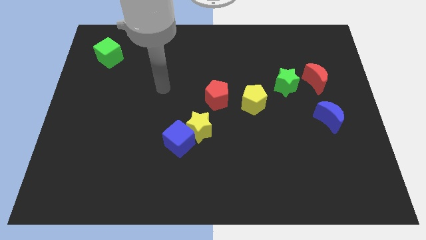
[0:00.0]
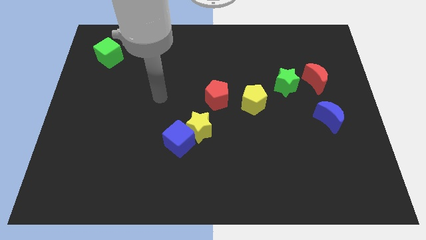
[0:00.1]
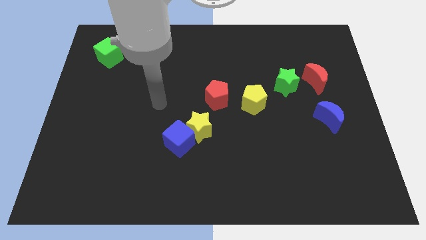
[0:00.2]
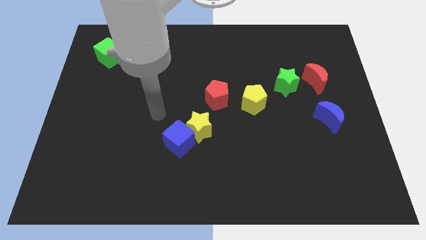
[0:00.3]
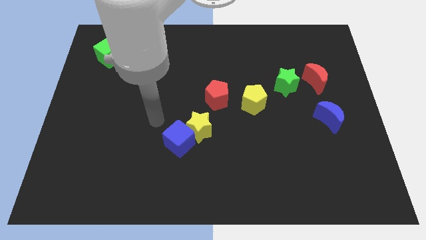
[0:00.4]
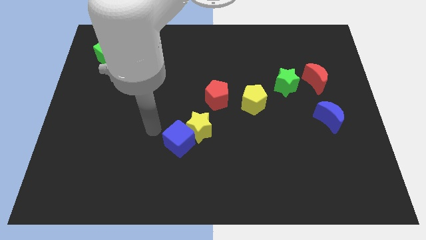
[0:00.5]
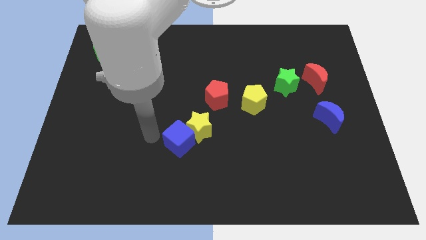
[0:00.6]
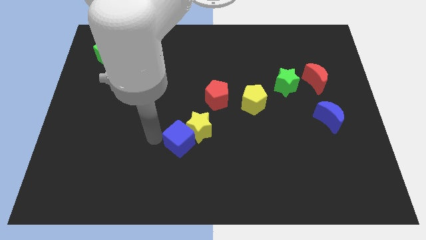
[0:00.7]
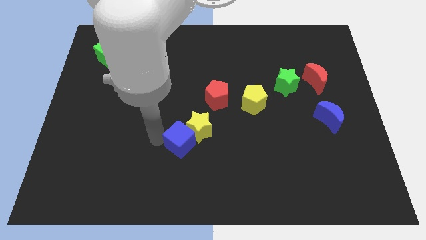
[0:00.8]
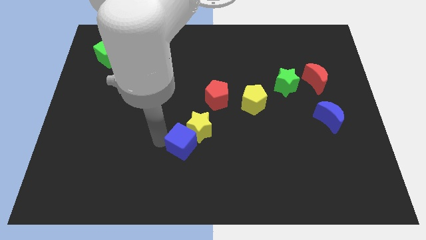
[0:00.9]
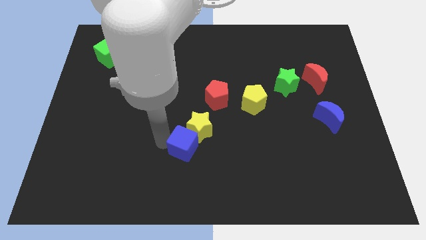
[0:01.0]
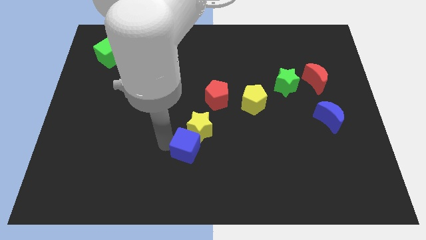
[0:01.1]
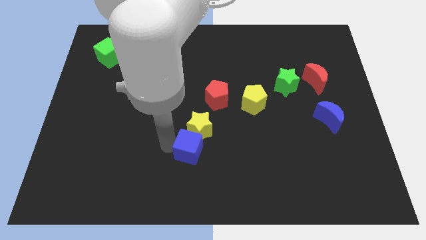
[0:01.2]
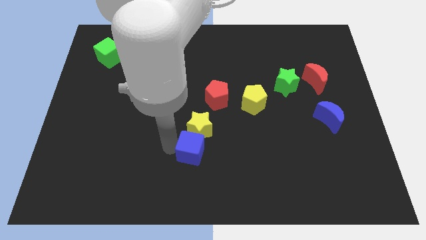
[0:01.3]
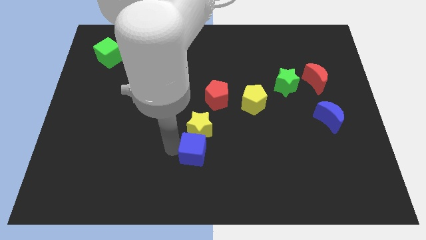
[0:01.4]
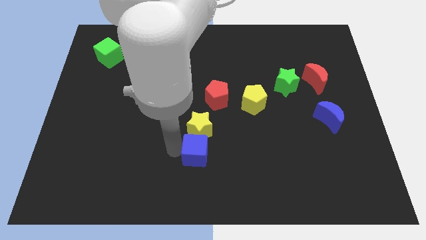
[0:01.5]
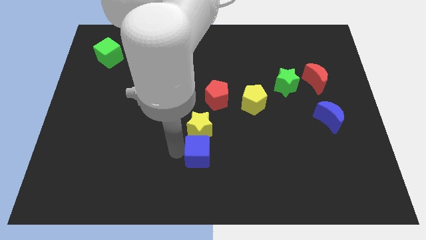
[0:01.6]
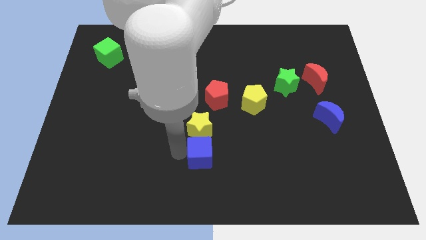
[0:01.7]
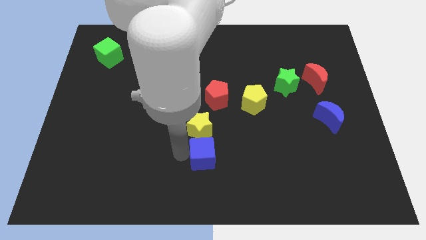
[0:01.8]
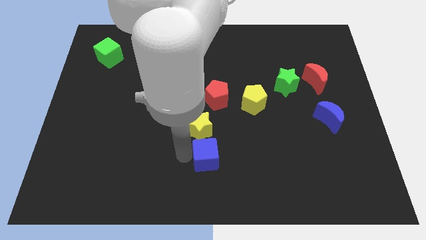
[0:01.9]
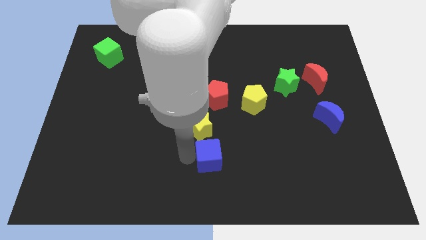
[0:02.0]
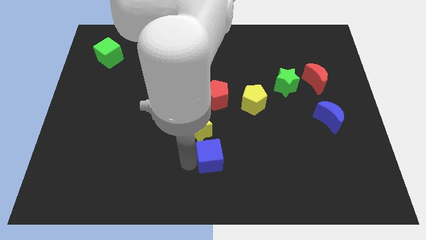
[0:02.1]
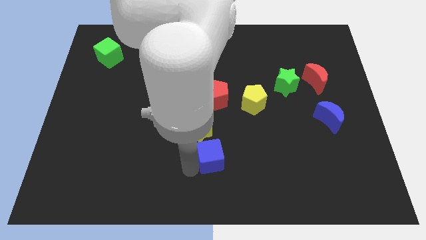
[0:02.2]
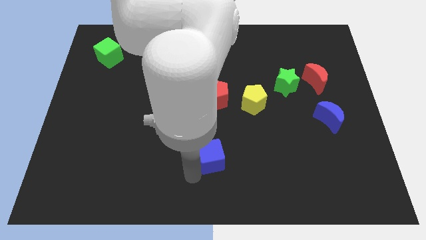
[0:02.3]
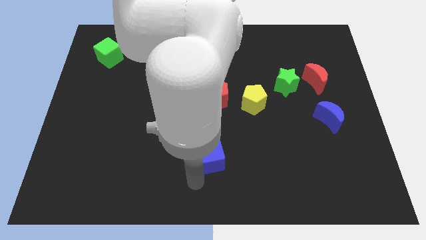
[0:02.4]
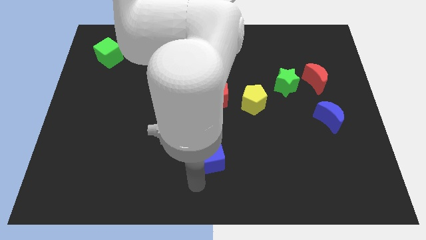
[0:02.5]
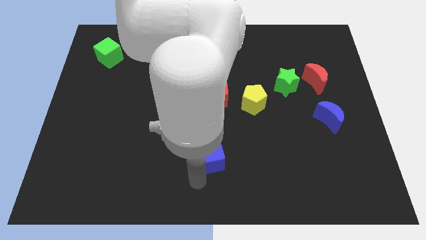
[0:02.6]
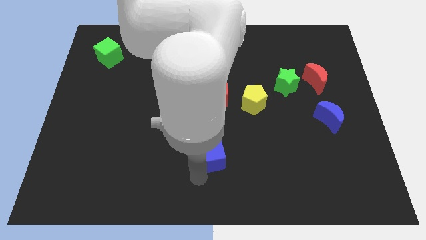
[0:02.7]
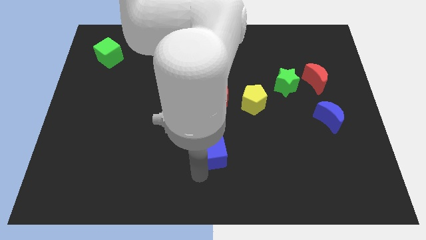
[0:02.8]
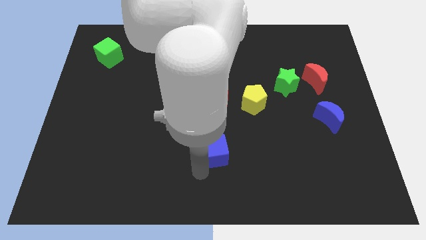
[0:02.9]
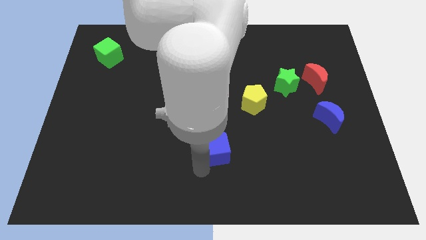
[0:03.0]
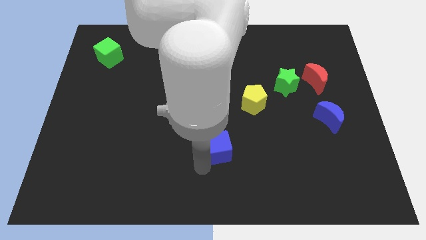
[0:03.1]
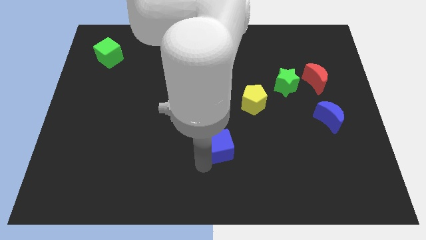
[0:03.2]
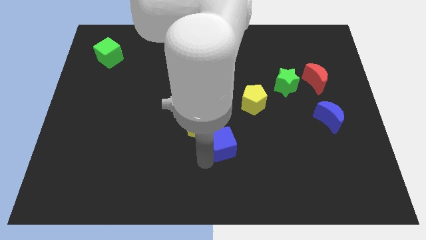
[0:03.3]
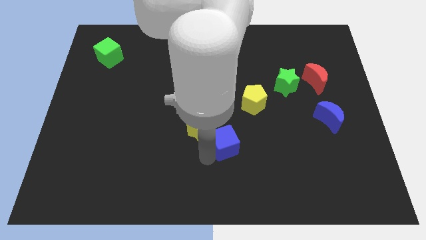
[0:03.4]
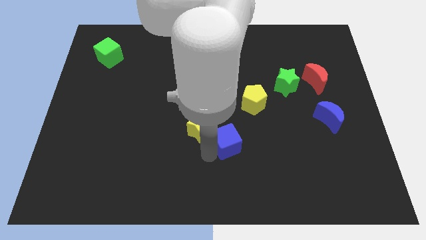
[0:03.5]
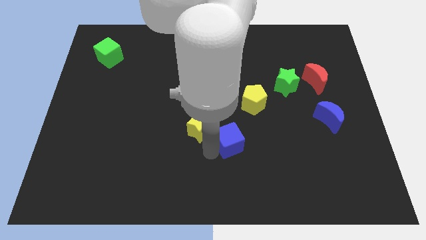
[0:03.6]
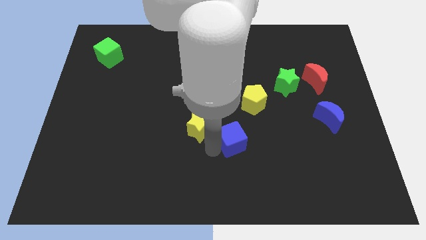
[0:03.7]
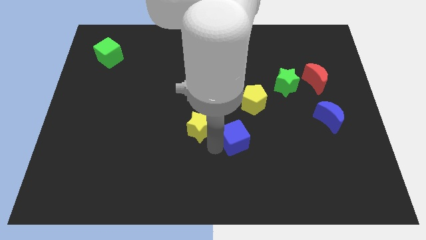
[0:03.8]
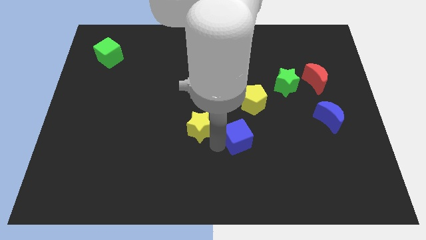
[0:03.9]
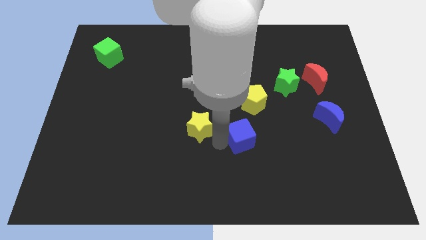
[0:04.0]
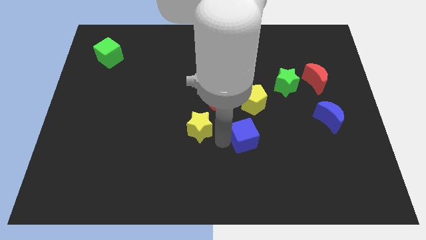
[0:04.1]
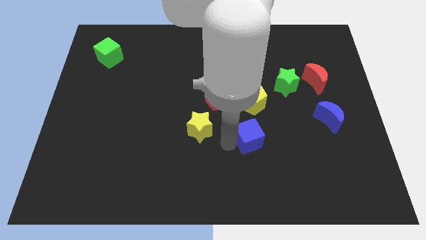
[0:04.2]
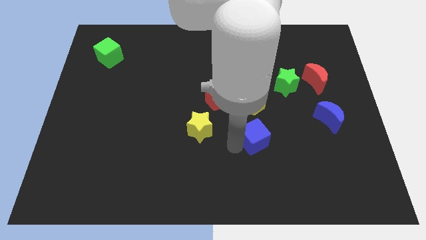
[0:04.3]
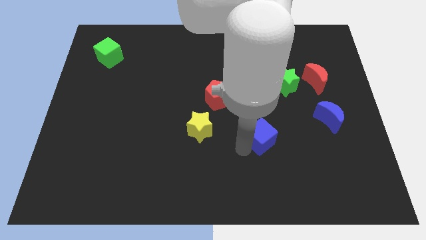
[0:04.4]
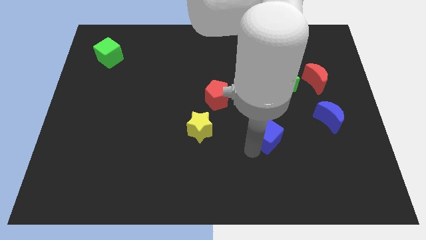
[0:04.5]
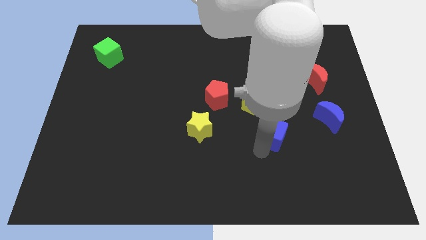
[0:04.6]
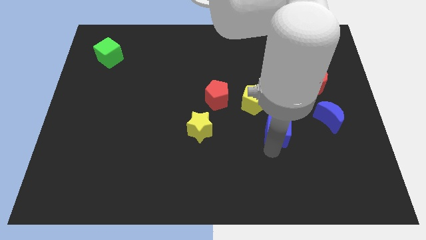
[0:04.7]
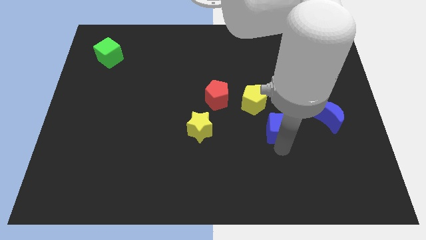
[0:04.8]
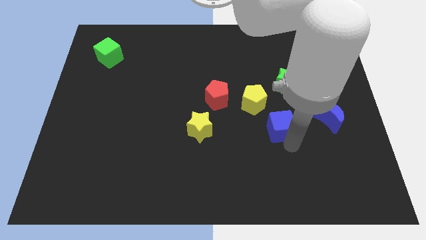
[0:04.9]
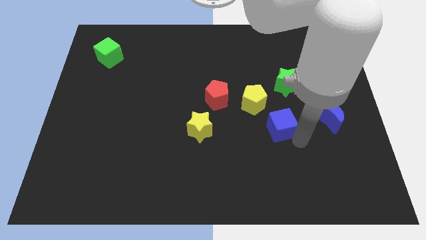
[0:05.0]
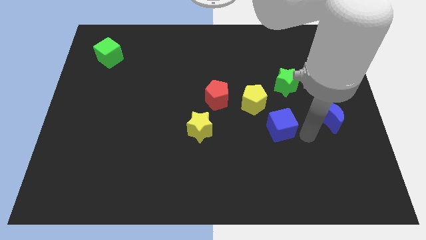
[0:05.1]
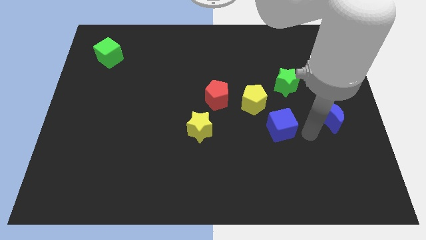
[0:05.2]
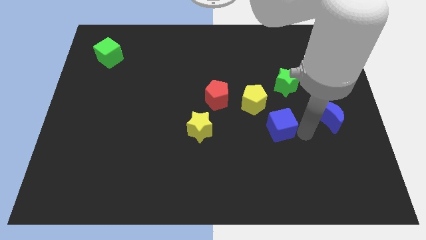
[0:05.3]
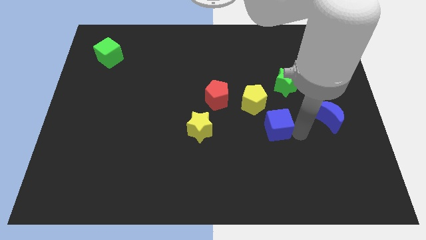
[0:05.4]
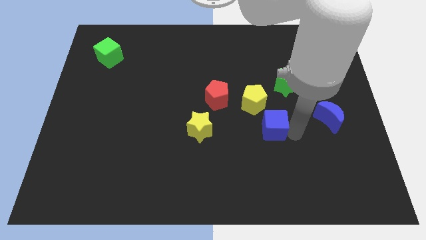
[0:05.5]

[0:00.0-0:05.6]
slide the blue cube a bit upwards and to the right diagonally

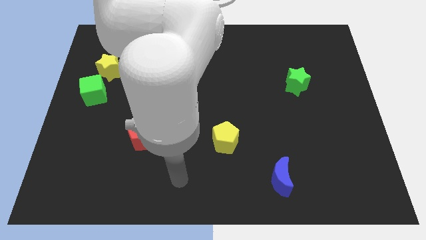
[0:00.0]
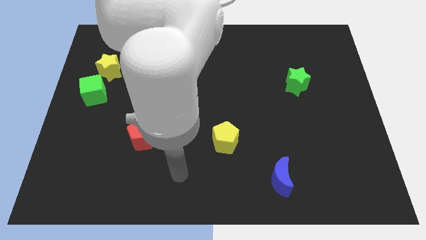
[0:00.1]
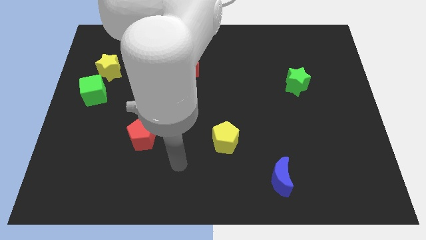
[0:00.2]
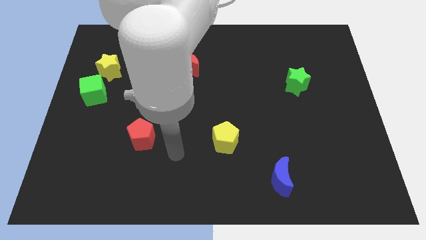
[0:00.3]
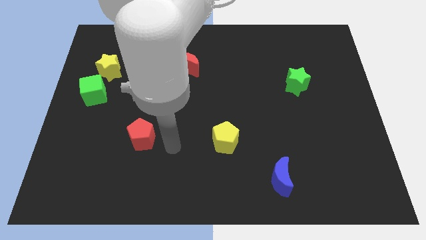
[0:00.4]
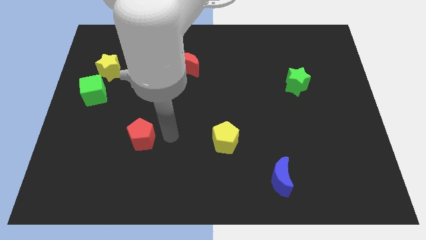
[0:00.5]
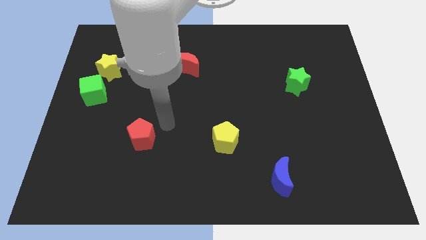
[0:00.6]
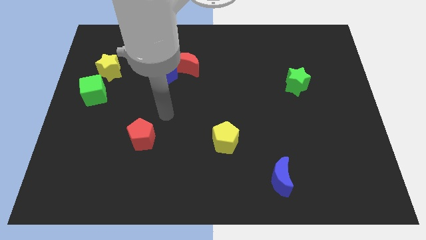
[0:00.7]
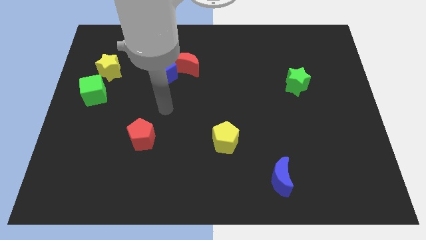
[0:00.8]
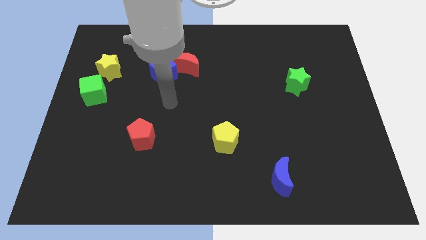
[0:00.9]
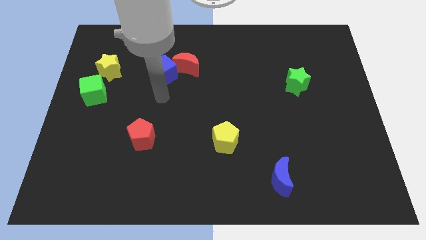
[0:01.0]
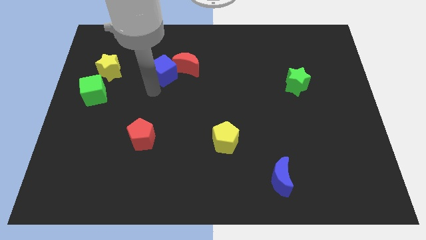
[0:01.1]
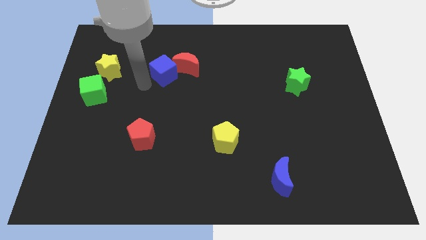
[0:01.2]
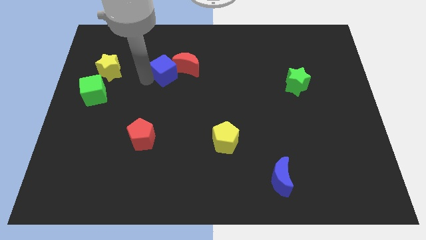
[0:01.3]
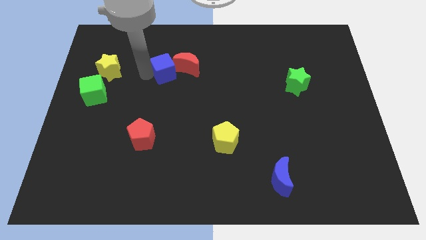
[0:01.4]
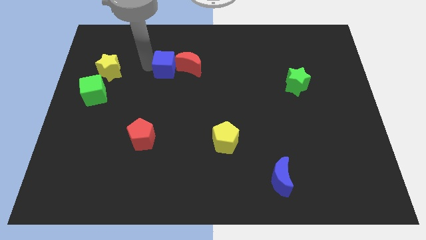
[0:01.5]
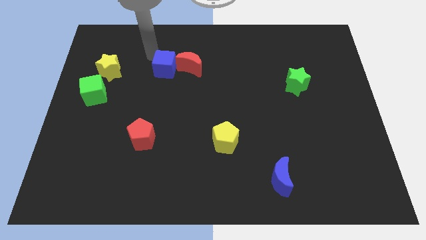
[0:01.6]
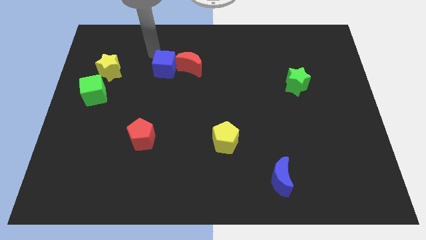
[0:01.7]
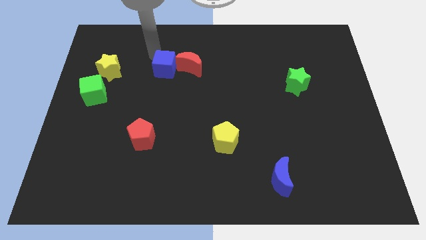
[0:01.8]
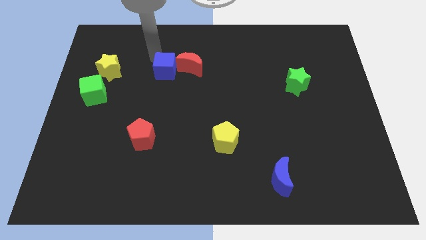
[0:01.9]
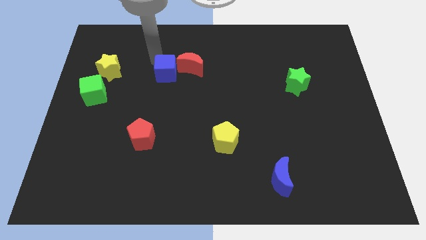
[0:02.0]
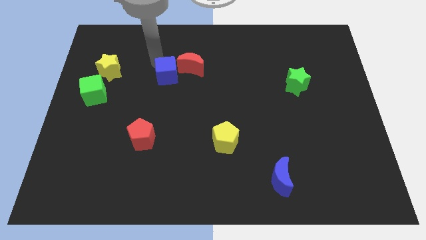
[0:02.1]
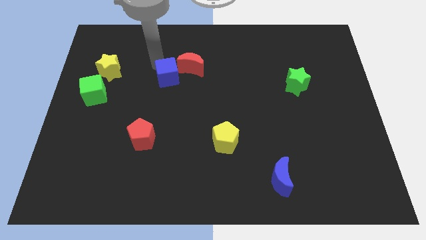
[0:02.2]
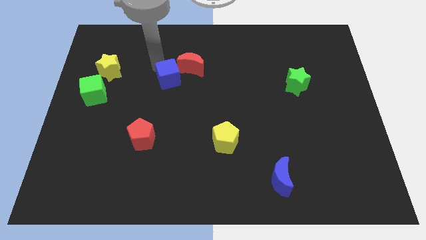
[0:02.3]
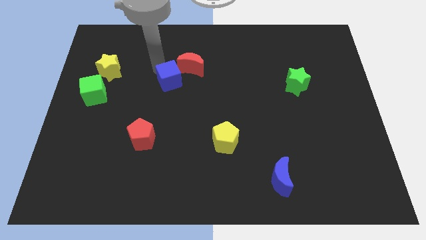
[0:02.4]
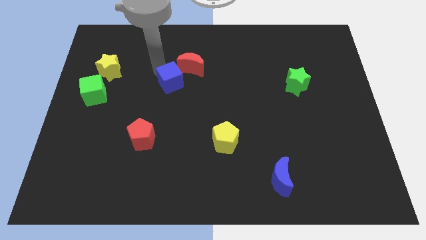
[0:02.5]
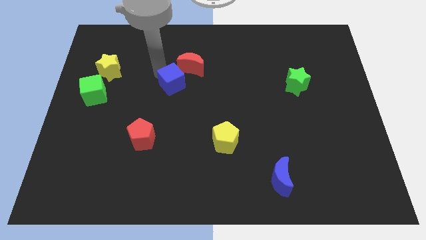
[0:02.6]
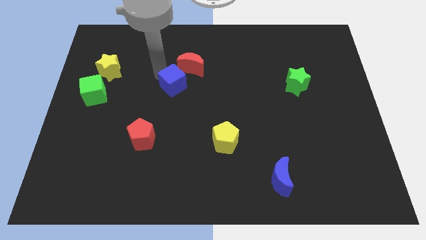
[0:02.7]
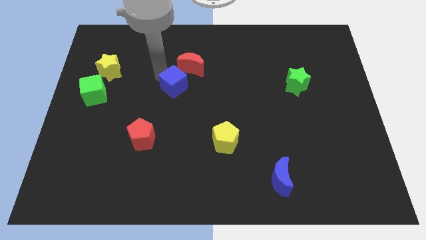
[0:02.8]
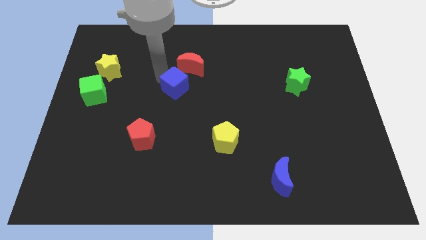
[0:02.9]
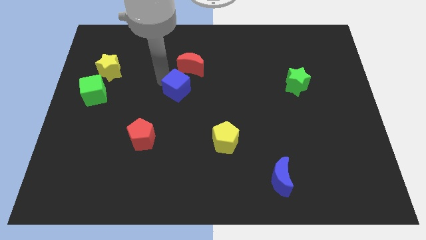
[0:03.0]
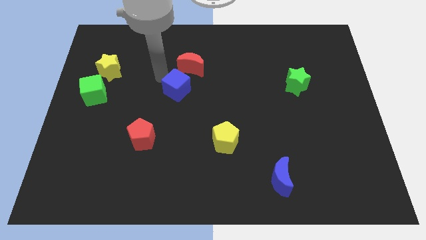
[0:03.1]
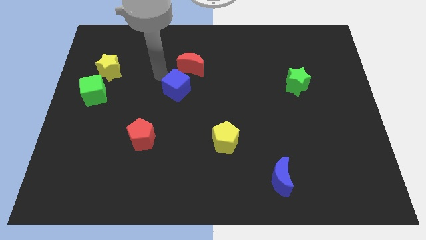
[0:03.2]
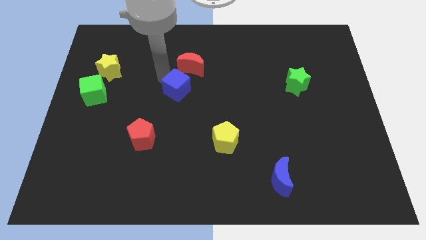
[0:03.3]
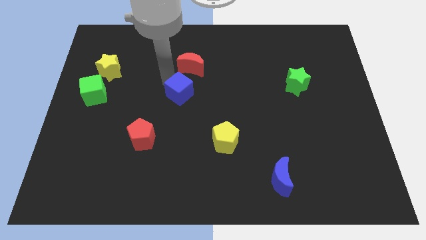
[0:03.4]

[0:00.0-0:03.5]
slide the blue cube somewhat downwards and to the right
